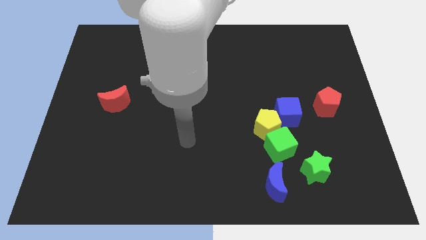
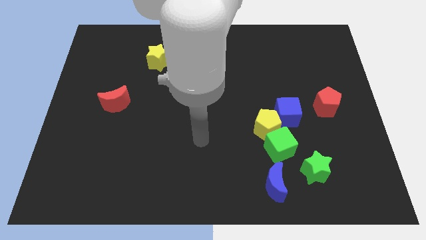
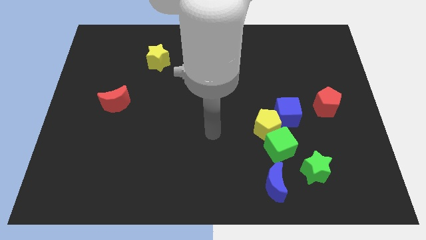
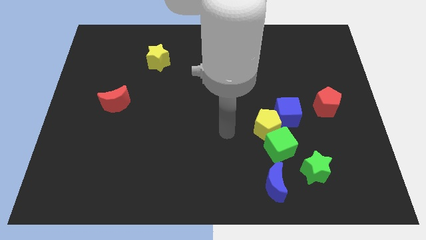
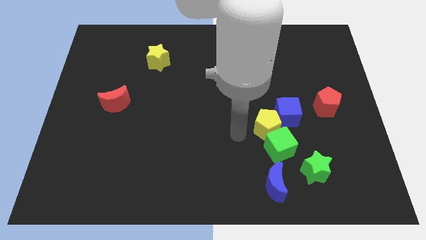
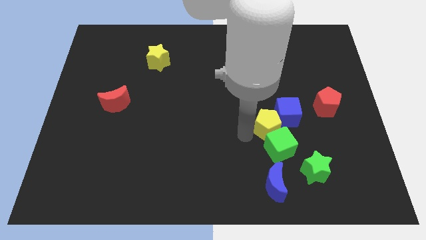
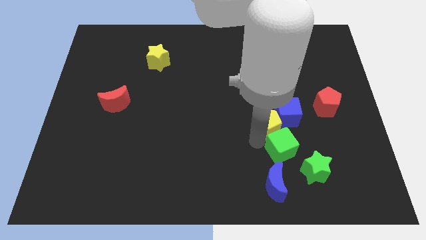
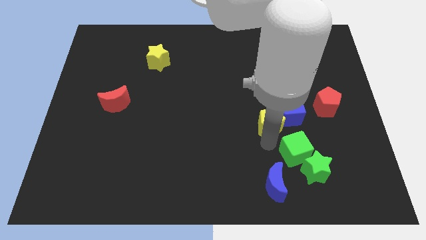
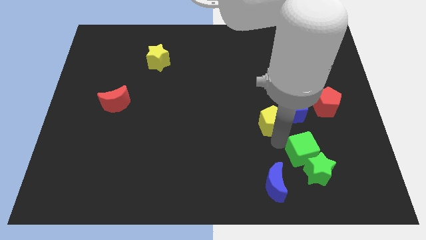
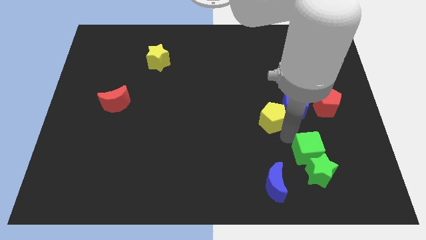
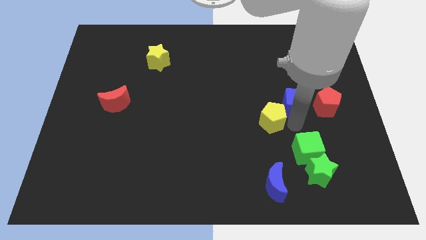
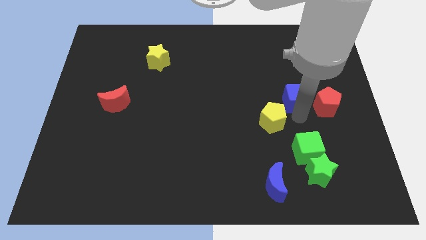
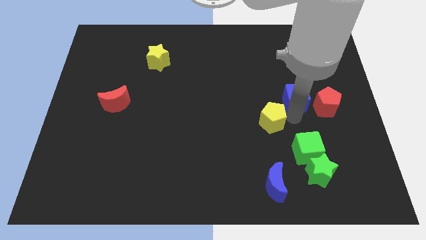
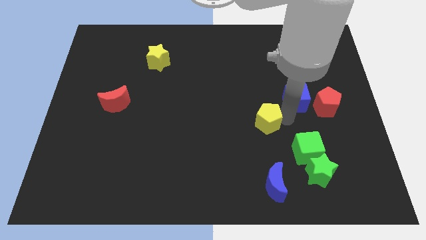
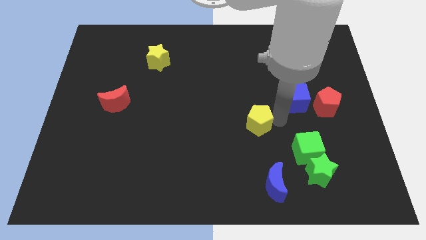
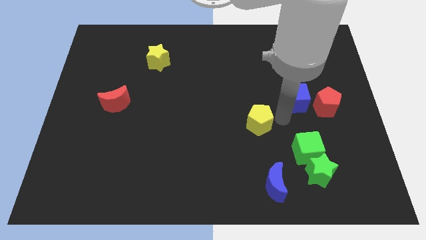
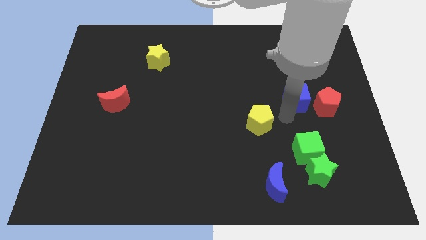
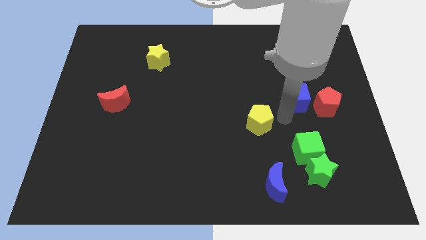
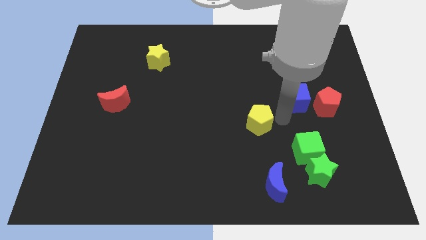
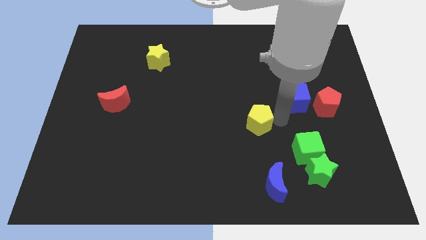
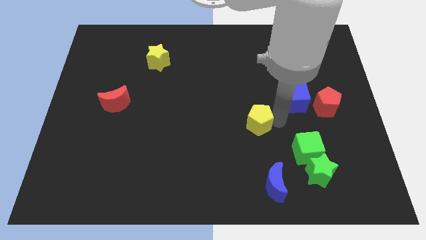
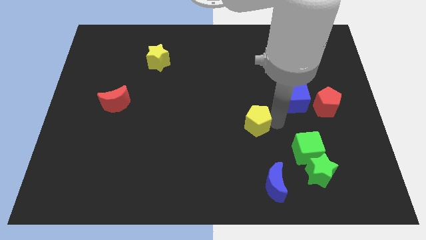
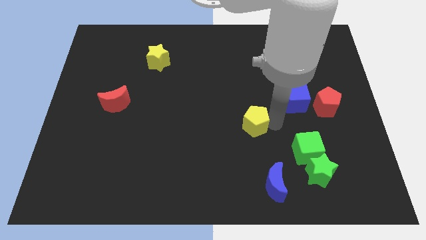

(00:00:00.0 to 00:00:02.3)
separate the yellow pentagon from the green cube and blue cube

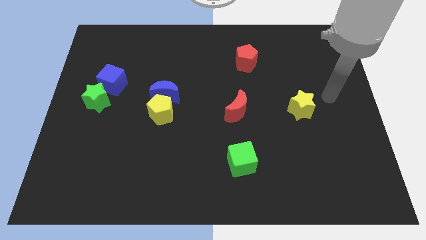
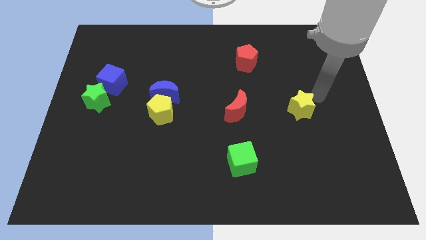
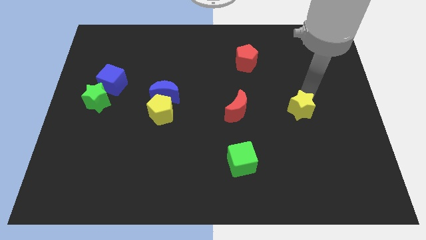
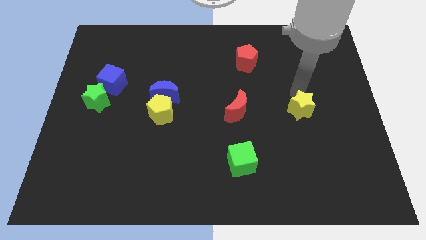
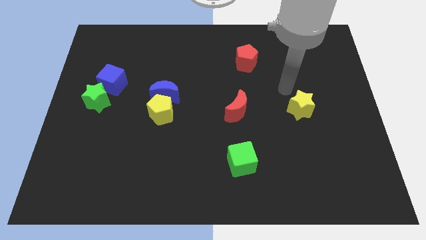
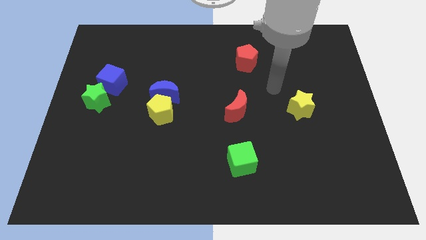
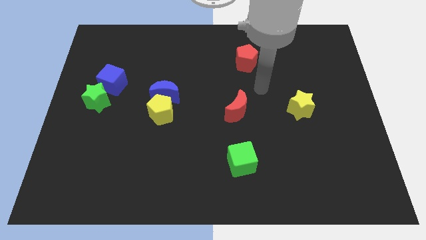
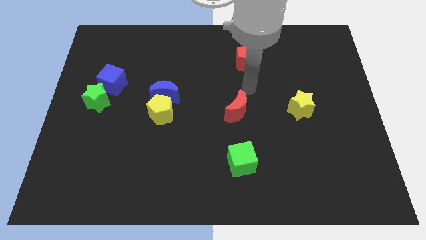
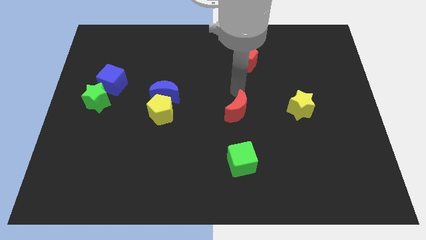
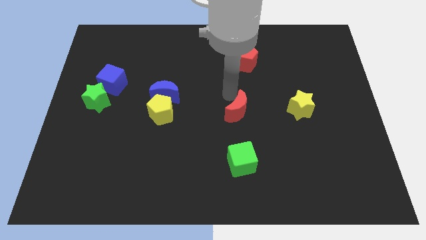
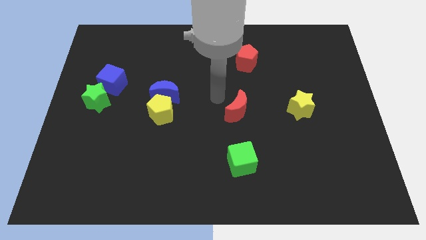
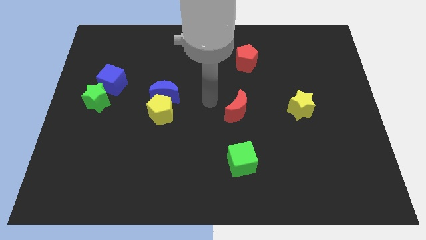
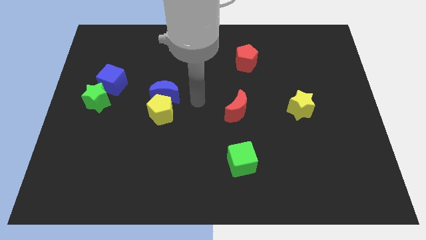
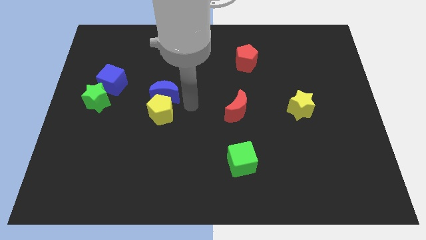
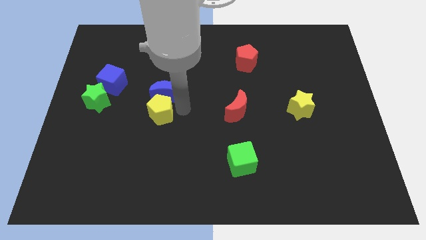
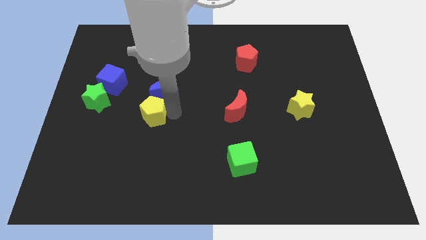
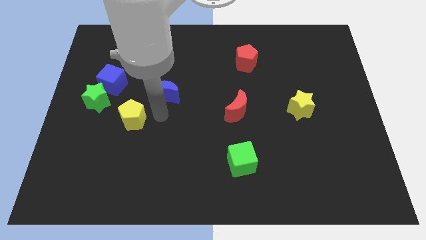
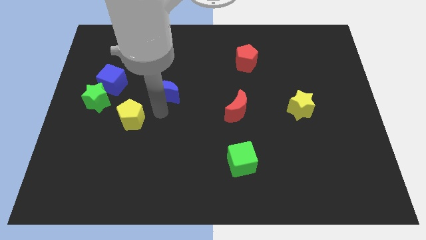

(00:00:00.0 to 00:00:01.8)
move the blue moon away from the yellow pentagon

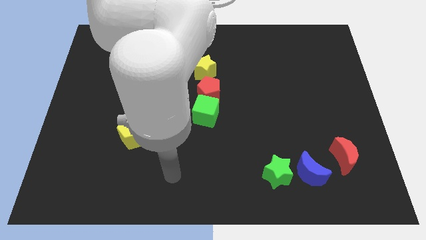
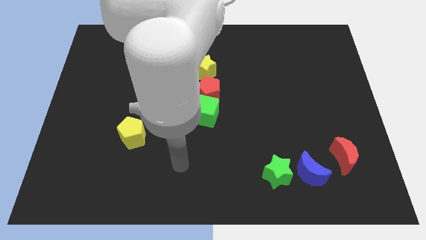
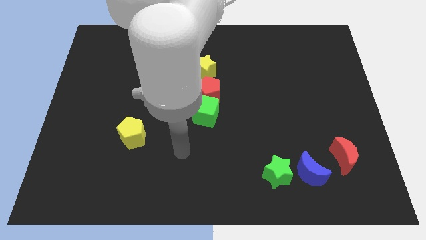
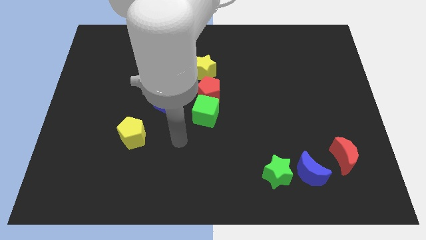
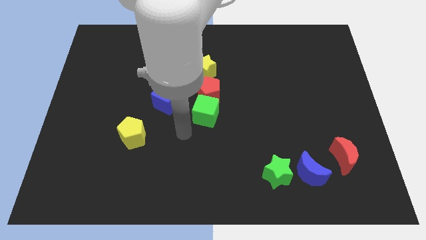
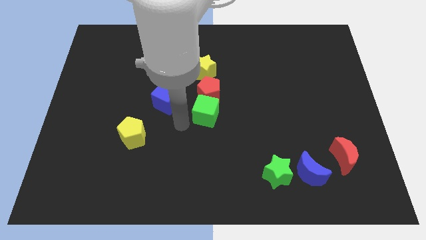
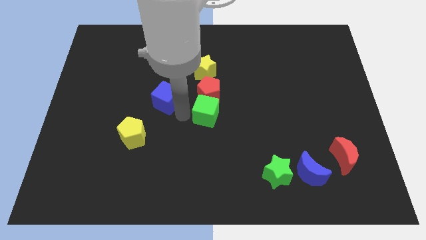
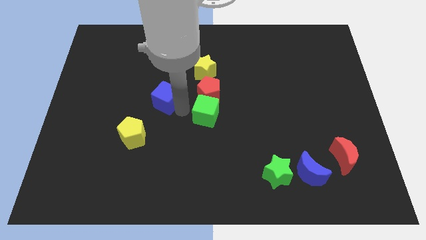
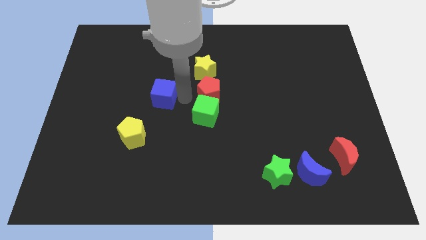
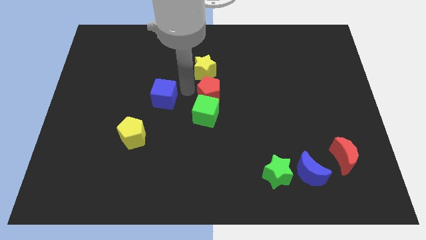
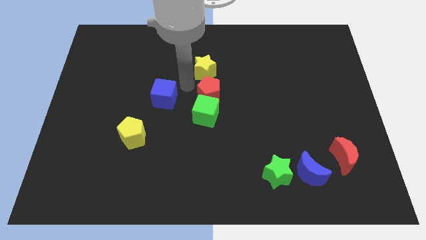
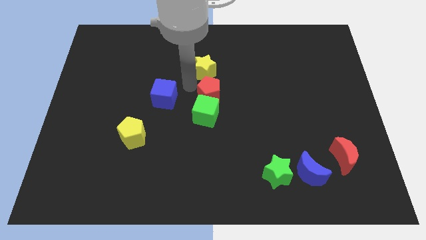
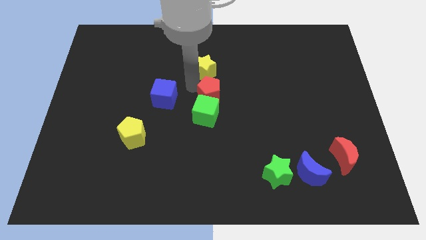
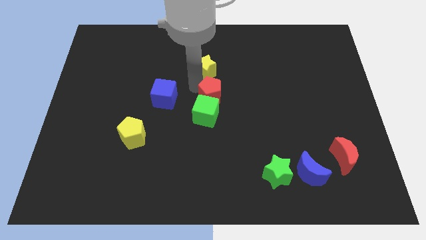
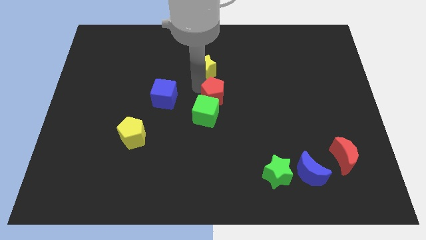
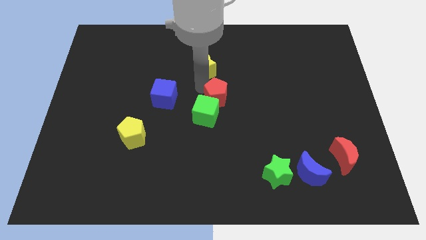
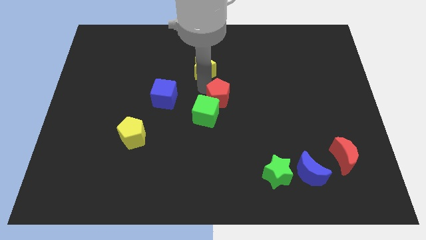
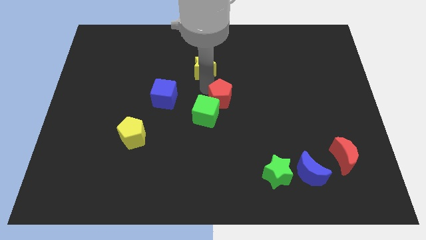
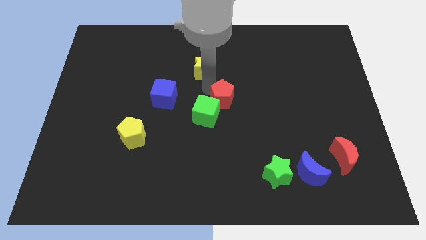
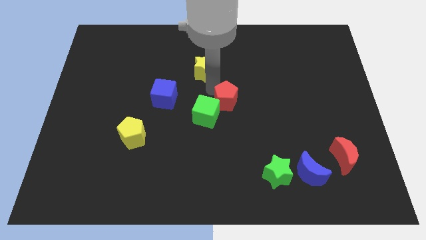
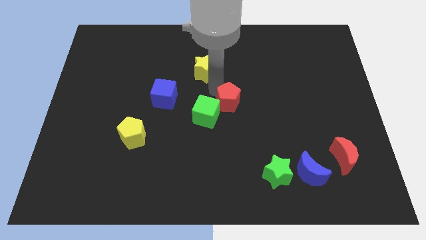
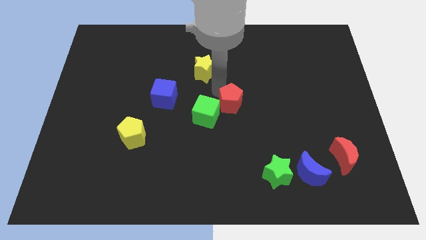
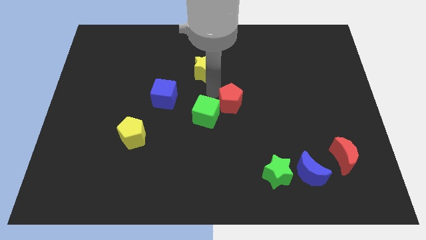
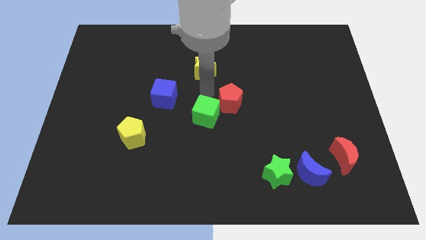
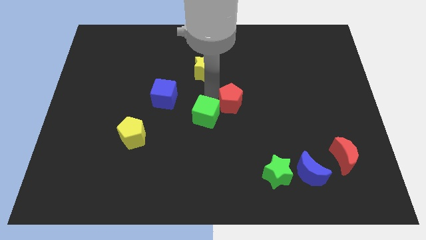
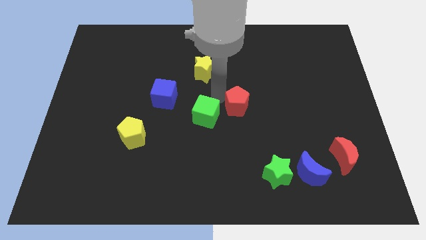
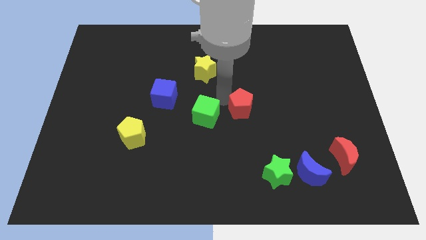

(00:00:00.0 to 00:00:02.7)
pull the red pentagon apart from the green cube and yellow star

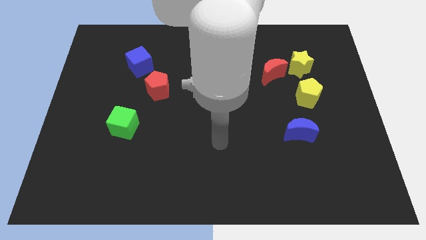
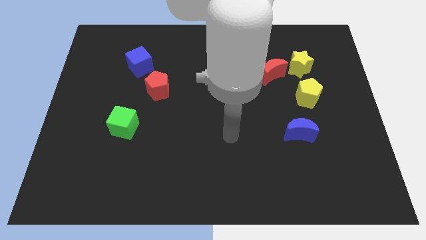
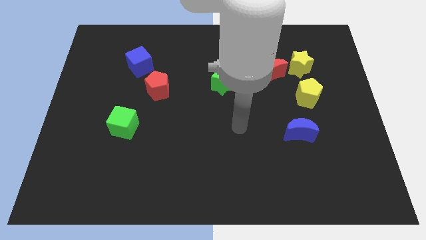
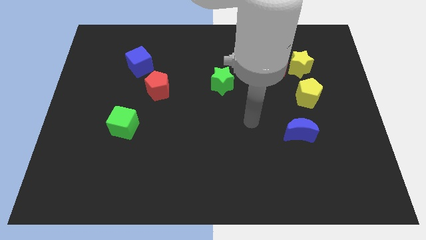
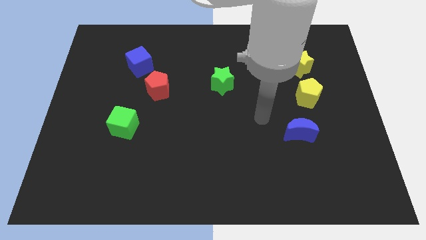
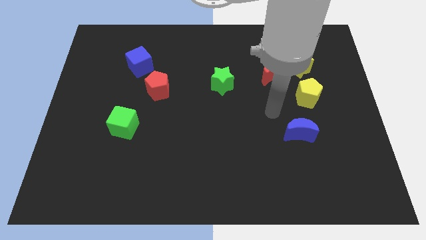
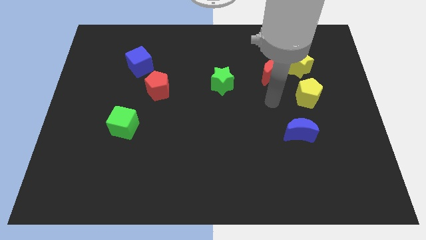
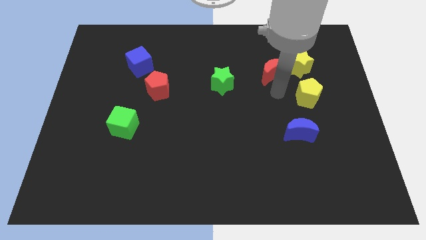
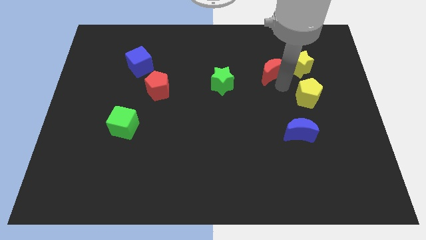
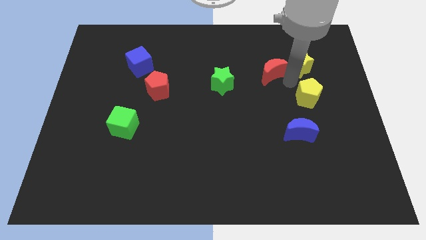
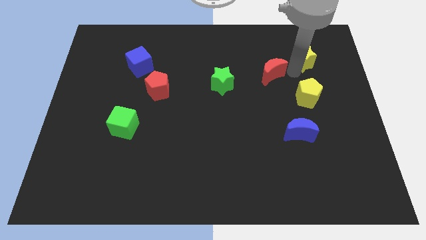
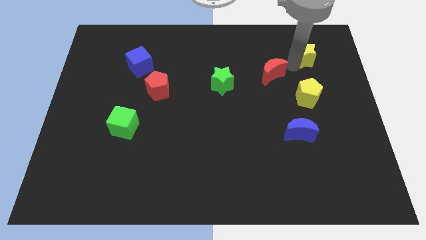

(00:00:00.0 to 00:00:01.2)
move the red moon away from the yellow star

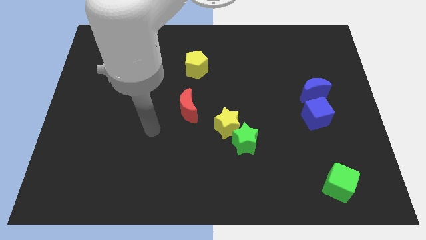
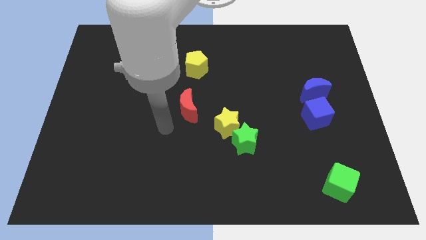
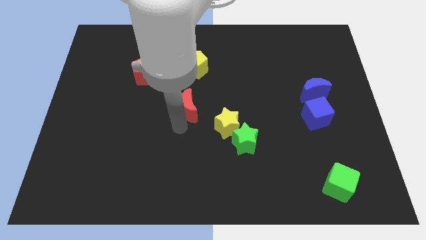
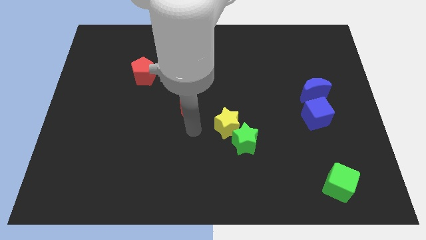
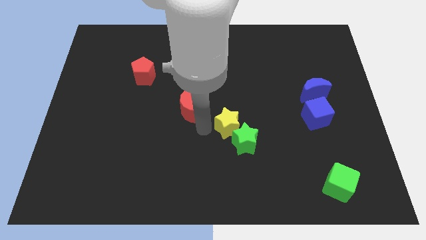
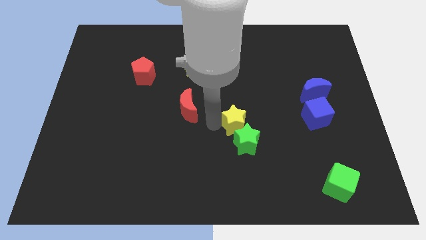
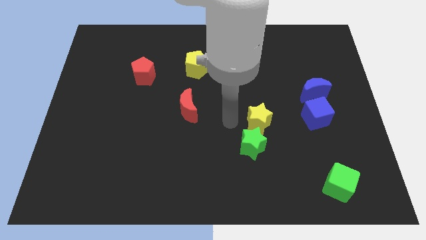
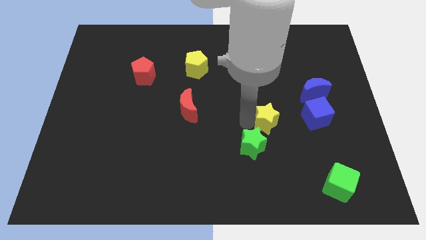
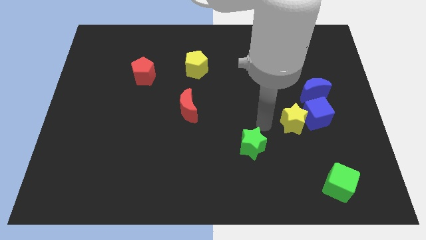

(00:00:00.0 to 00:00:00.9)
separate the green star from the yellow star

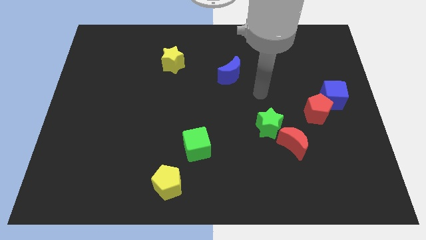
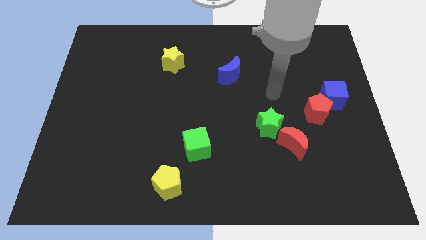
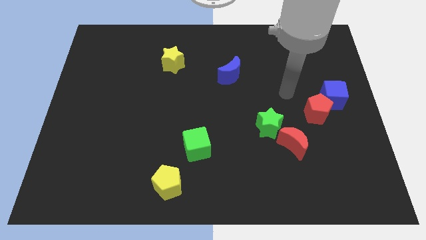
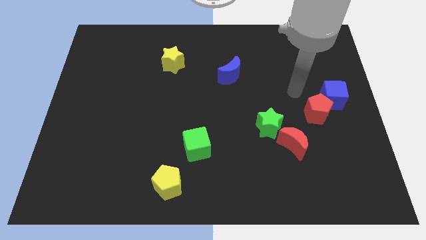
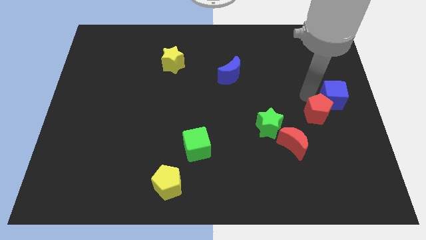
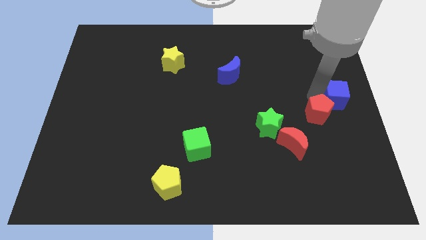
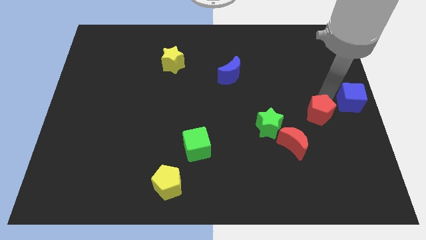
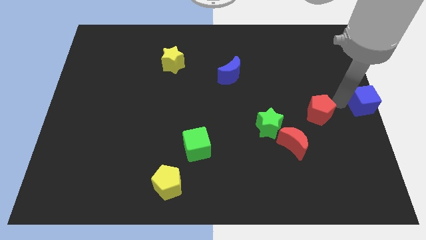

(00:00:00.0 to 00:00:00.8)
move the red pentagon away from the blue cube
